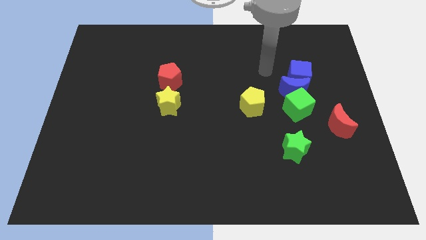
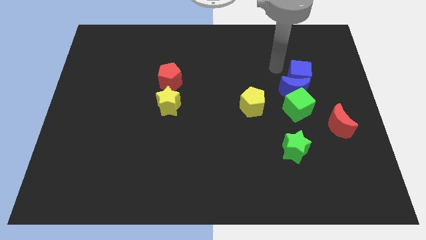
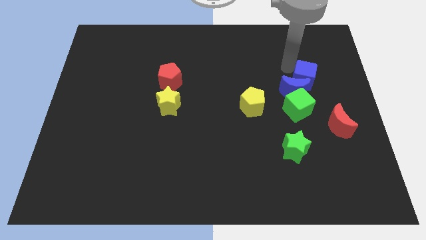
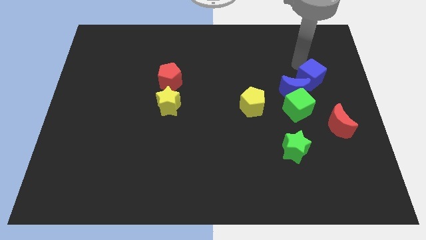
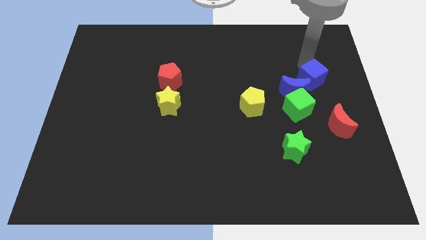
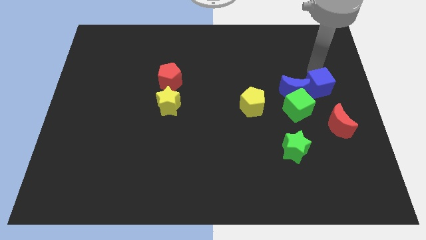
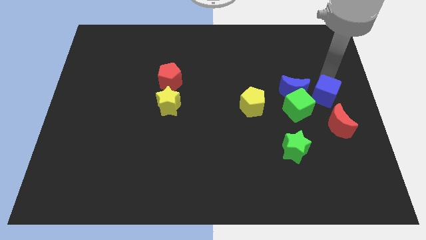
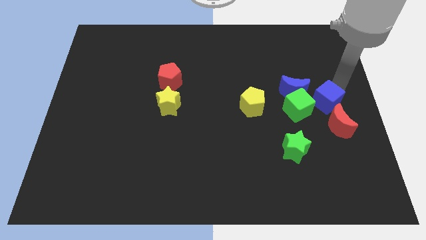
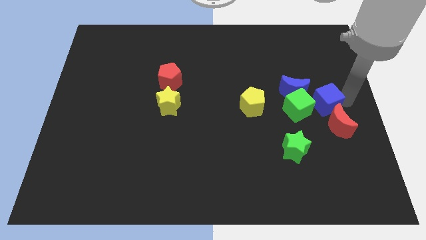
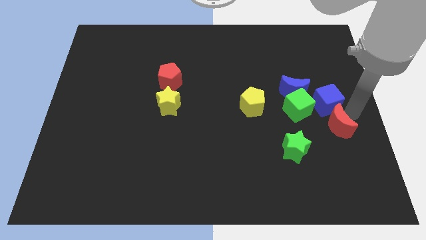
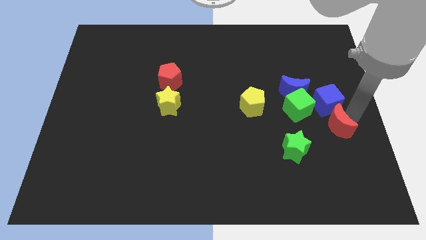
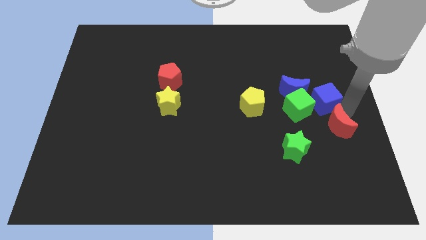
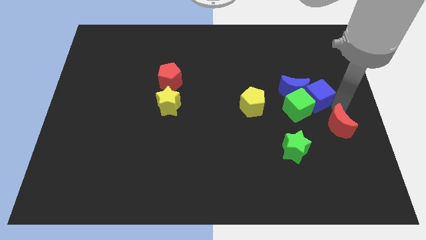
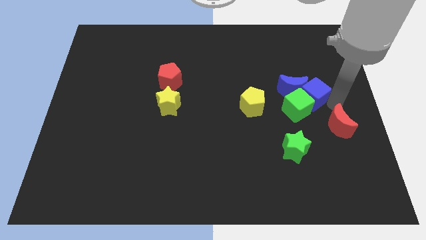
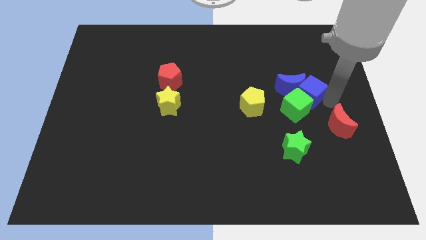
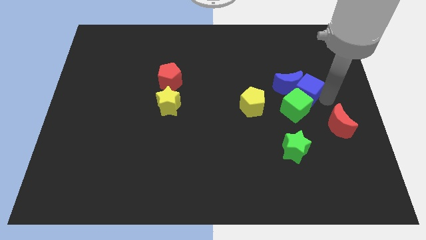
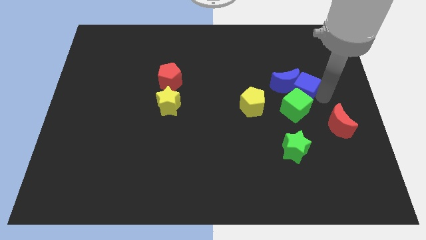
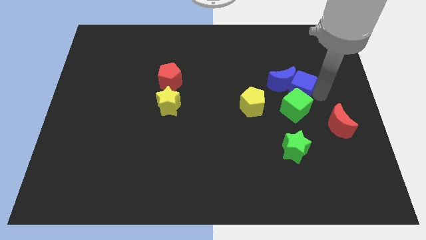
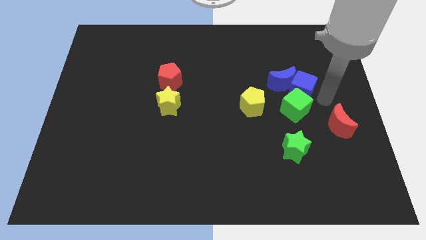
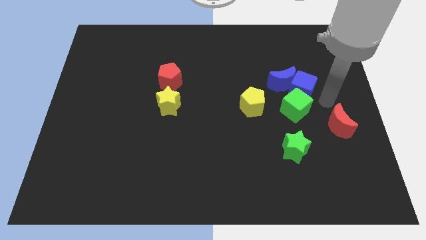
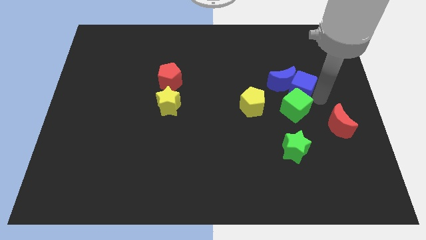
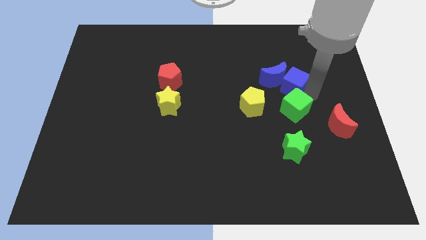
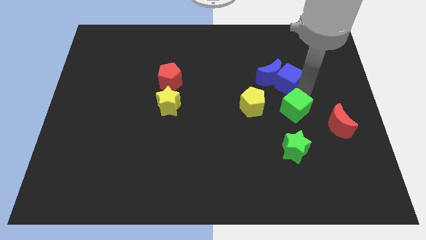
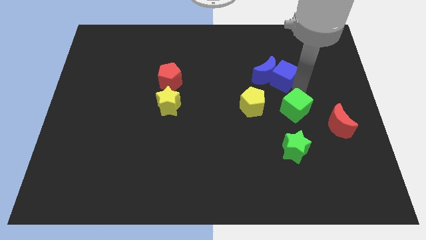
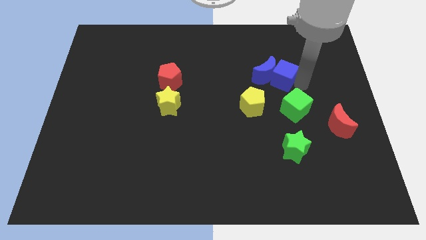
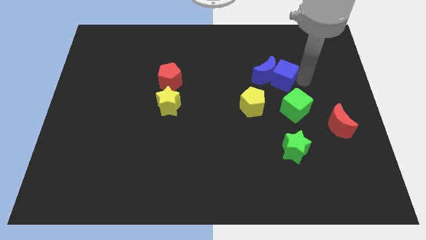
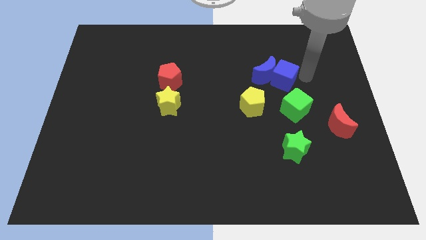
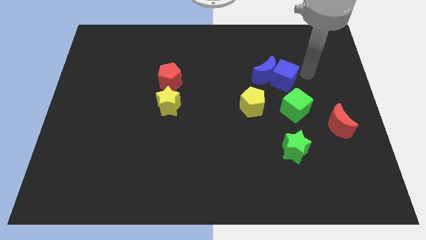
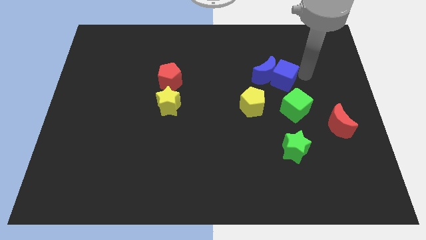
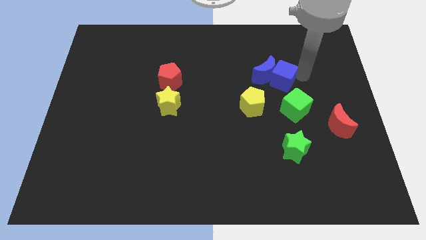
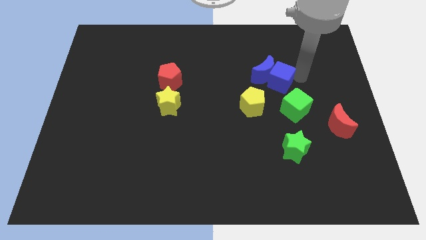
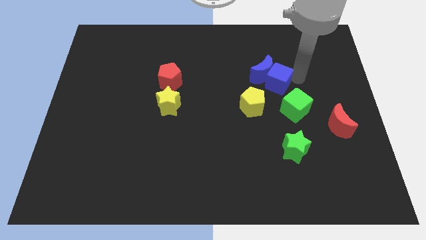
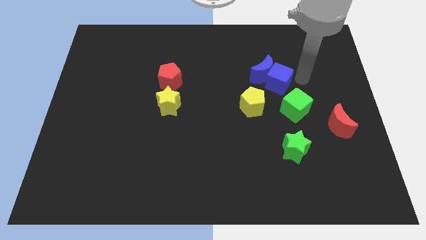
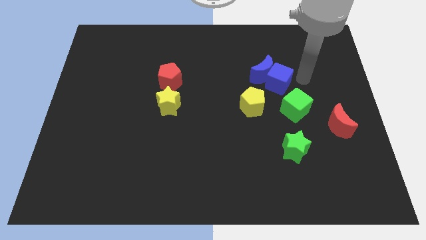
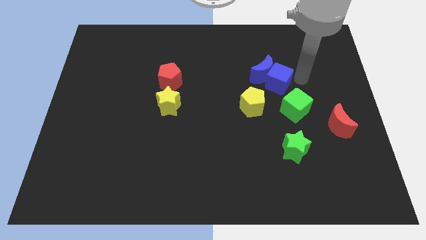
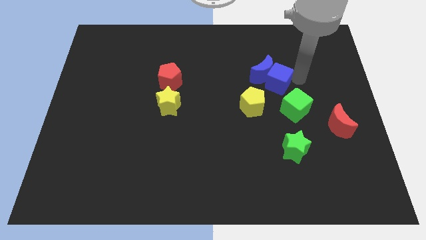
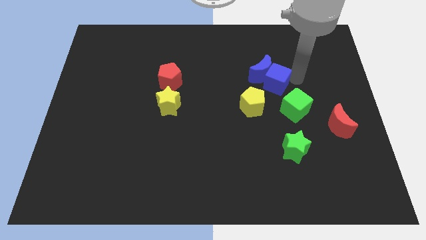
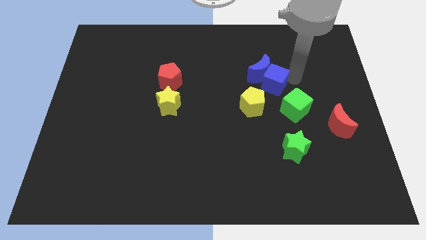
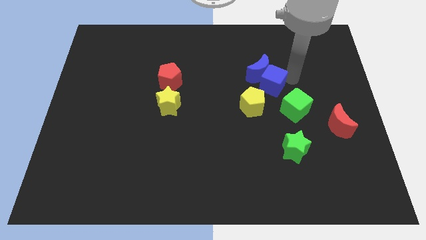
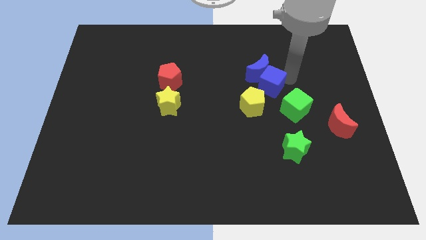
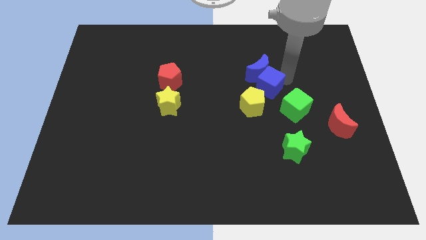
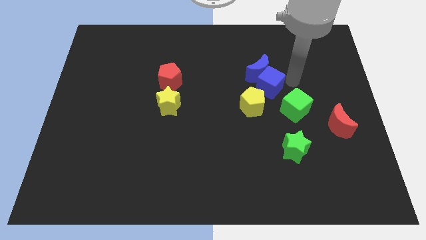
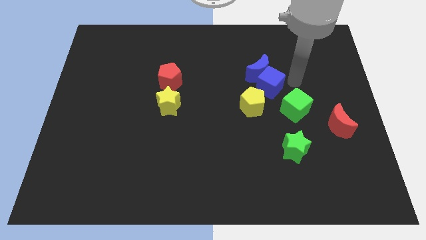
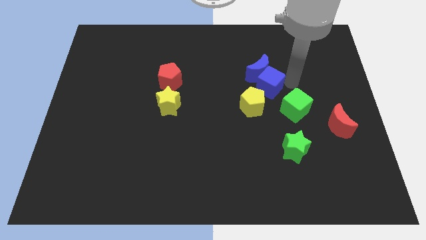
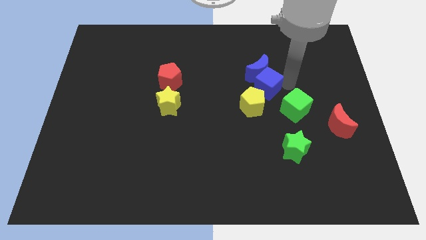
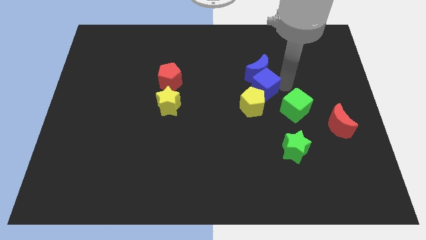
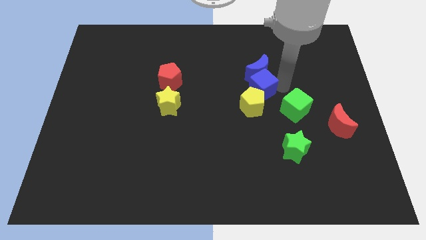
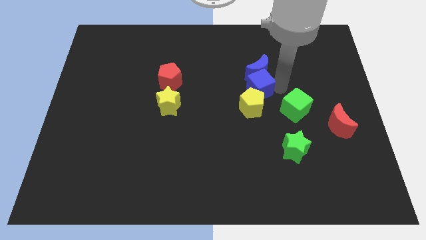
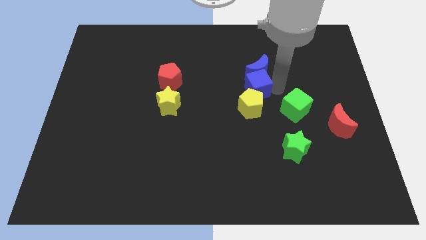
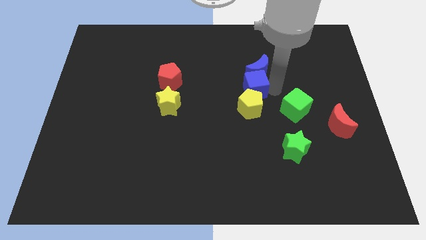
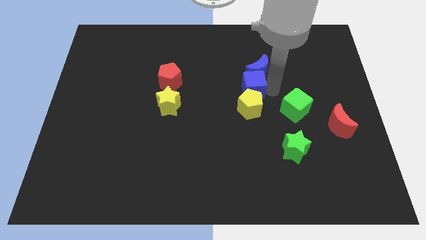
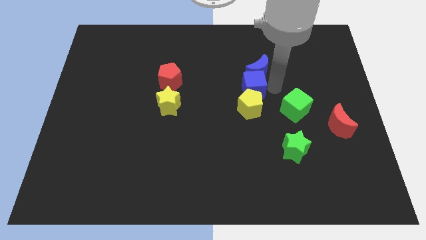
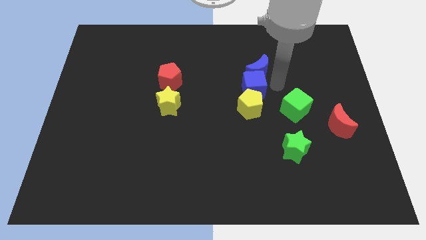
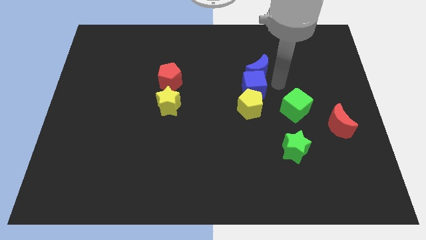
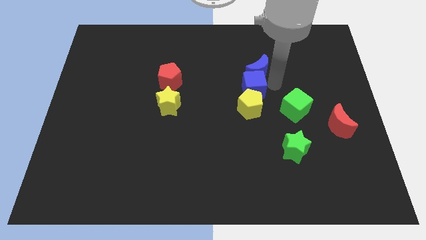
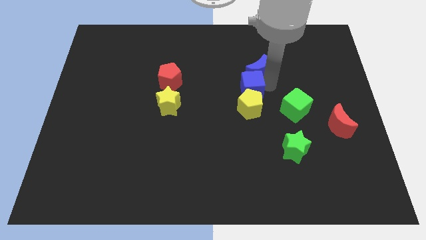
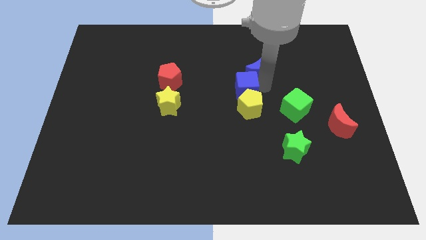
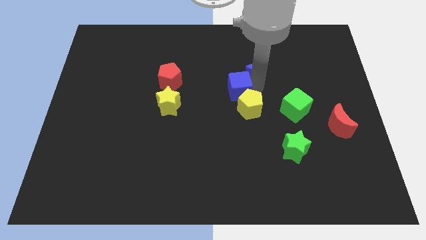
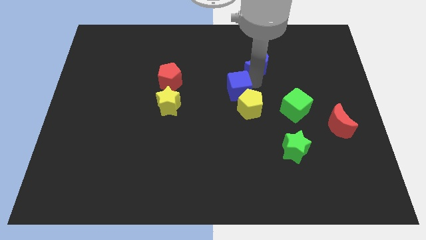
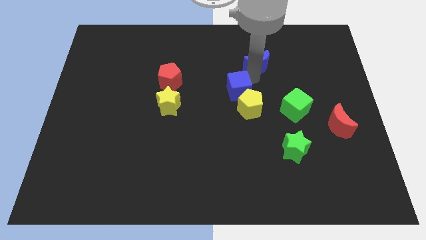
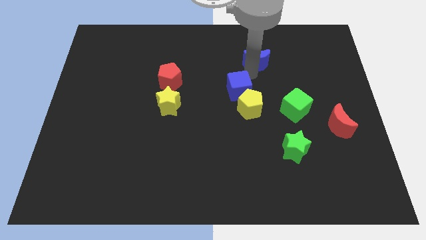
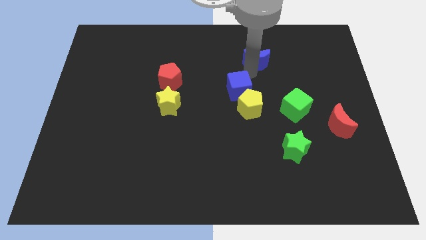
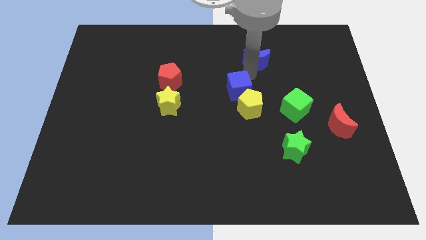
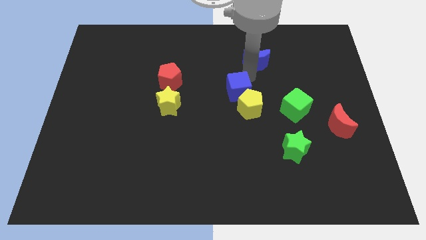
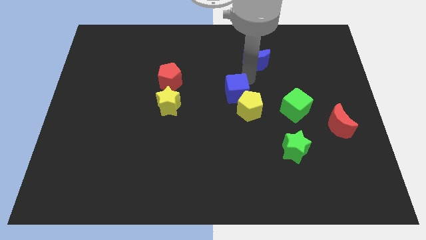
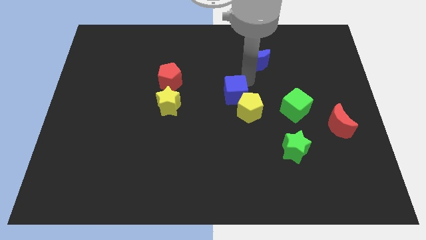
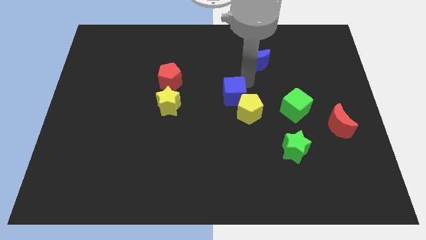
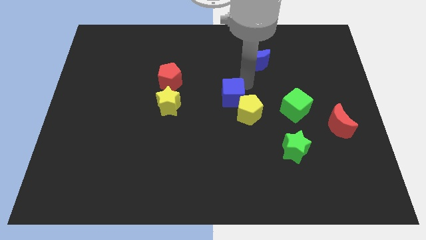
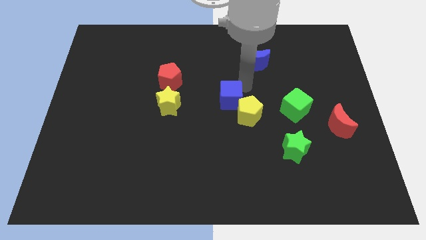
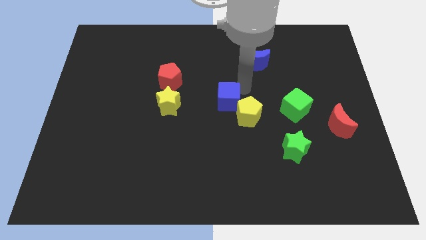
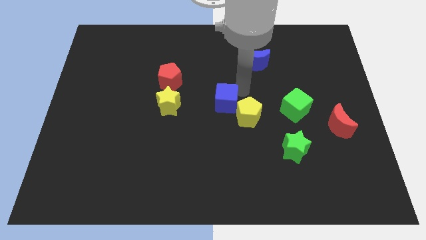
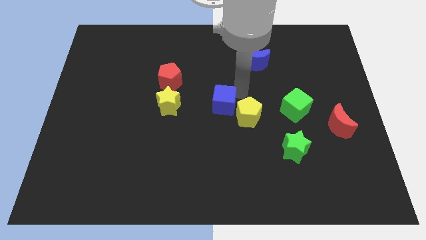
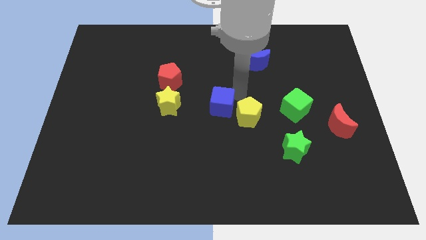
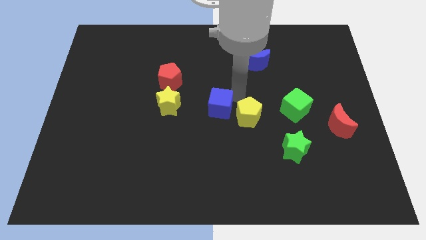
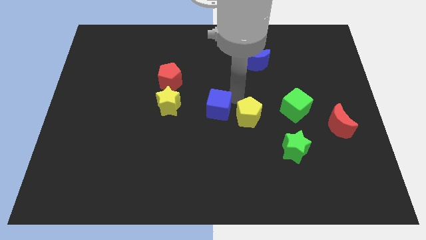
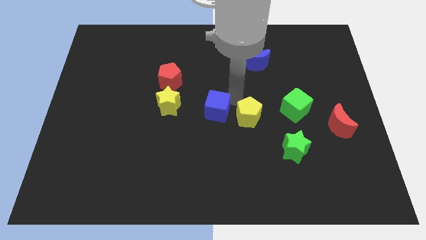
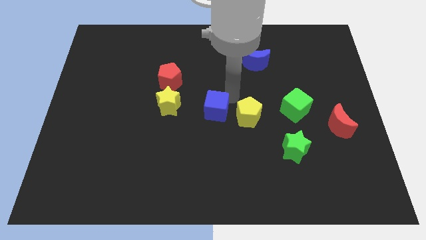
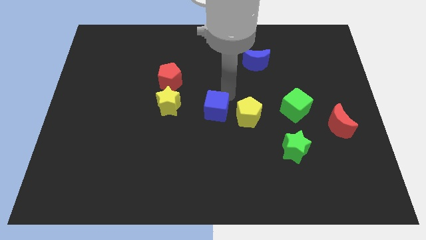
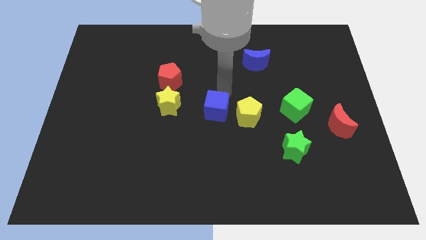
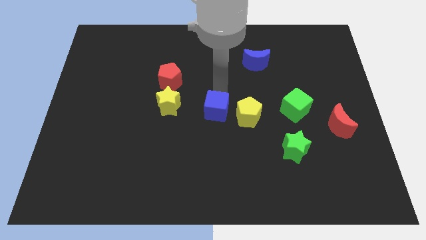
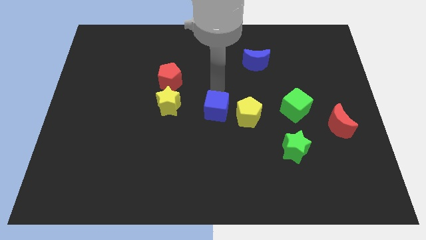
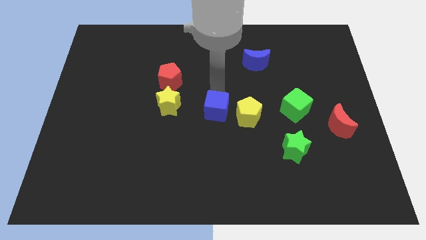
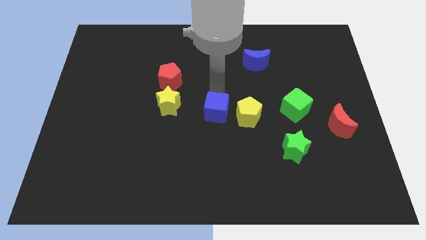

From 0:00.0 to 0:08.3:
push the blue cube diagonally downwards and left

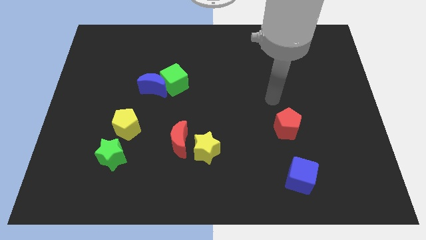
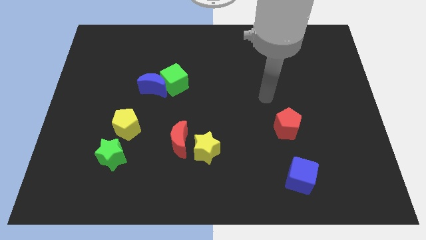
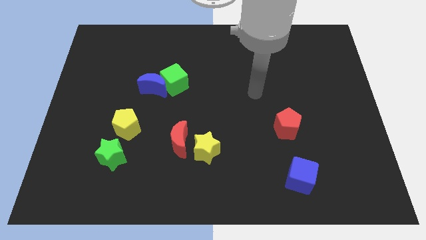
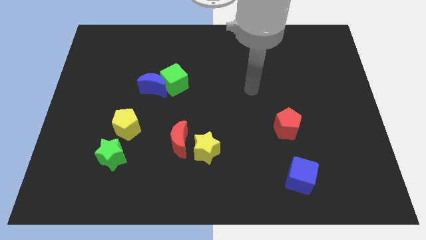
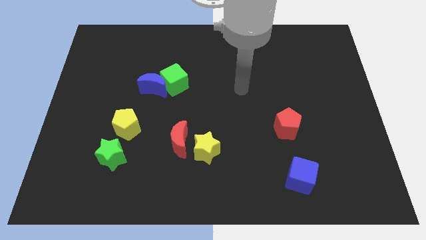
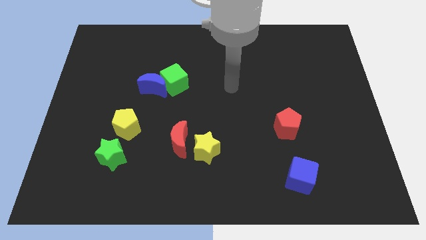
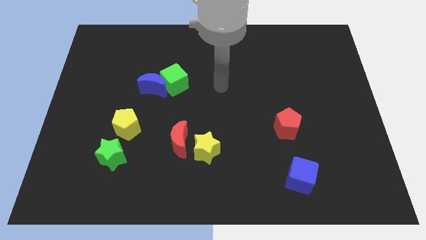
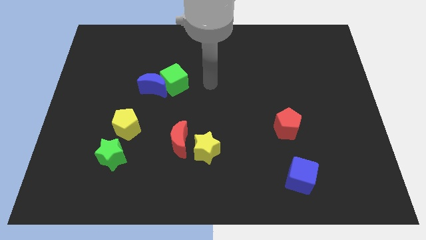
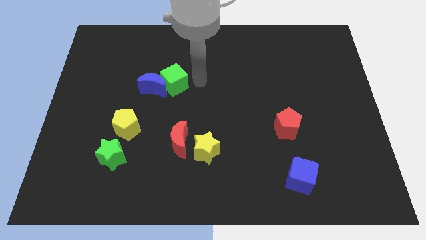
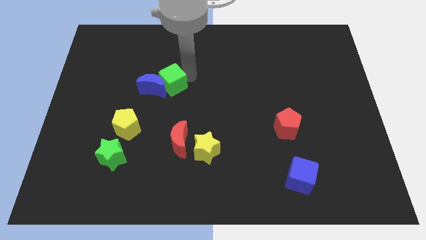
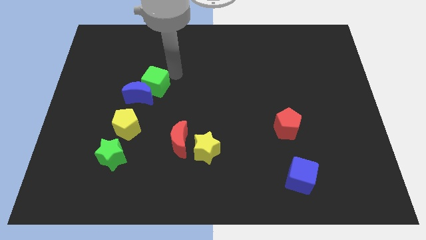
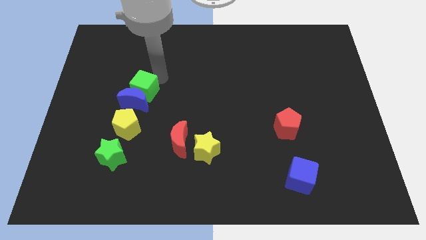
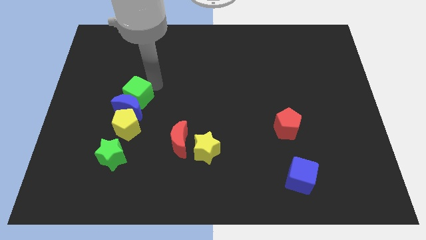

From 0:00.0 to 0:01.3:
push the blue moon downwards and to the left diagonally a little
